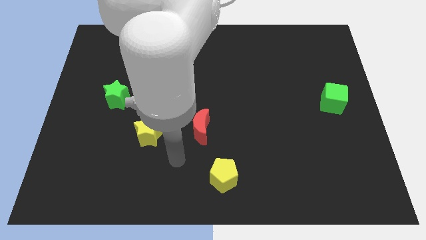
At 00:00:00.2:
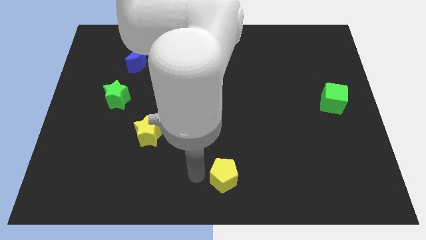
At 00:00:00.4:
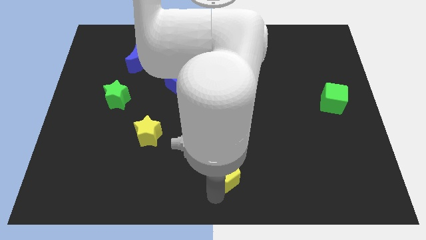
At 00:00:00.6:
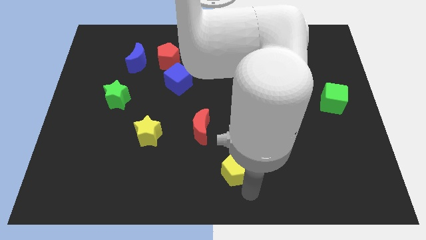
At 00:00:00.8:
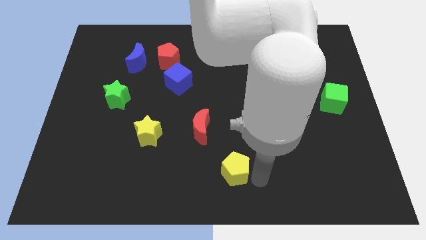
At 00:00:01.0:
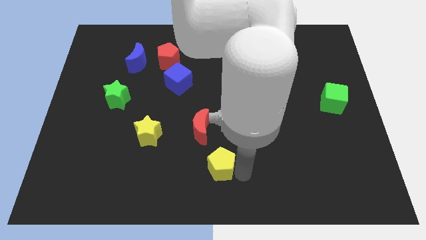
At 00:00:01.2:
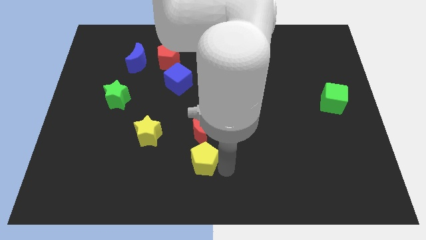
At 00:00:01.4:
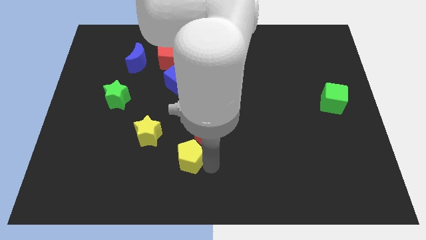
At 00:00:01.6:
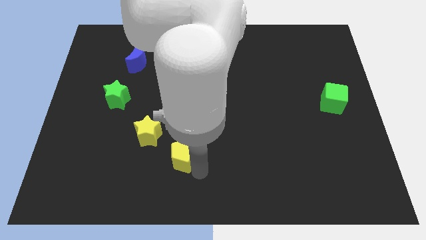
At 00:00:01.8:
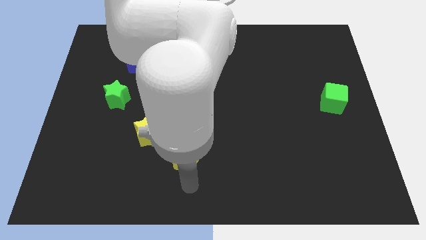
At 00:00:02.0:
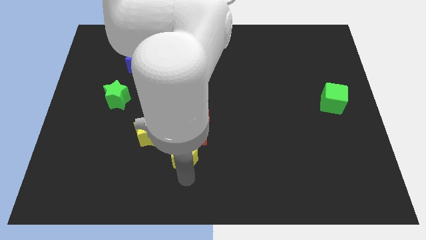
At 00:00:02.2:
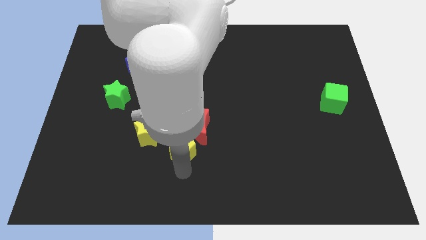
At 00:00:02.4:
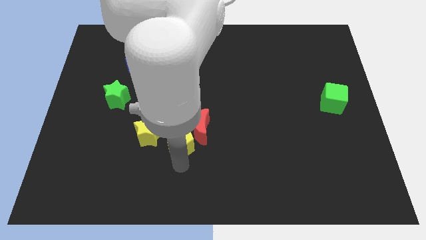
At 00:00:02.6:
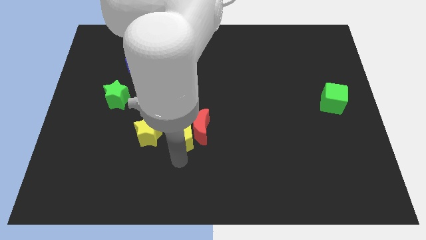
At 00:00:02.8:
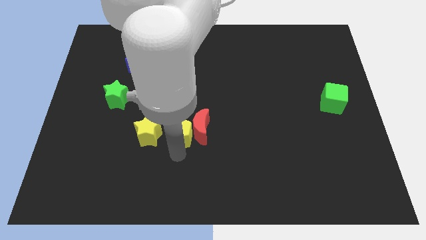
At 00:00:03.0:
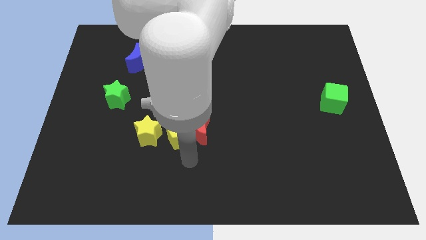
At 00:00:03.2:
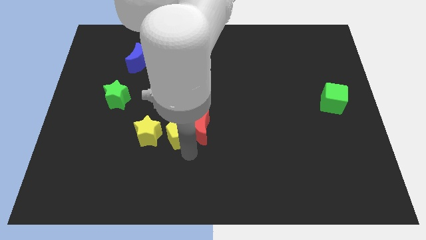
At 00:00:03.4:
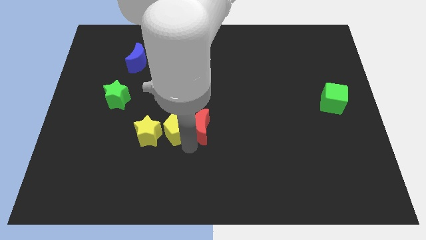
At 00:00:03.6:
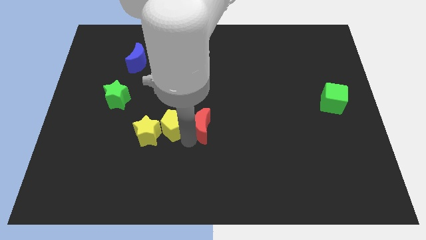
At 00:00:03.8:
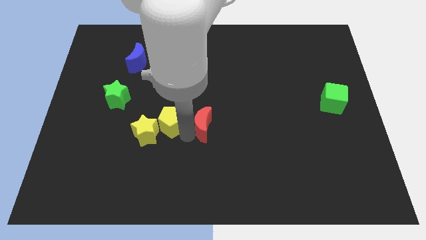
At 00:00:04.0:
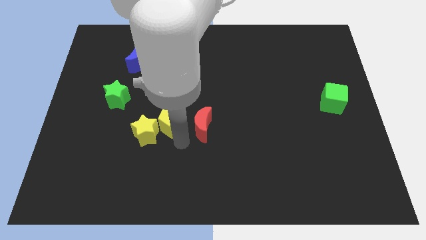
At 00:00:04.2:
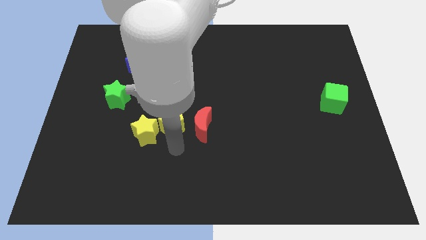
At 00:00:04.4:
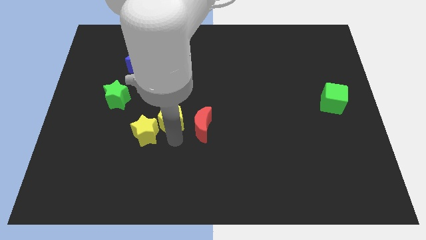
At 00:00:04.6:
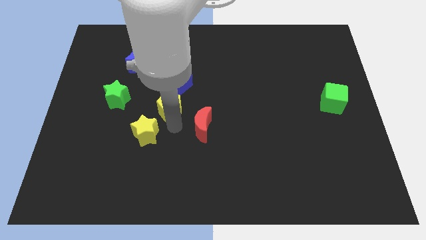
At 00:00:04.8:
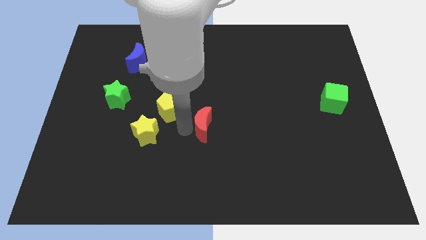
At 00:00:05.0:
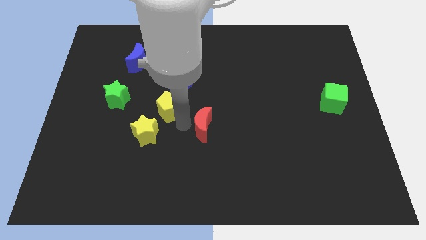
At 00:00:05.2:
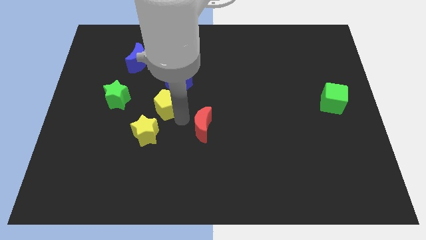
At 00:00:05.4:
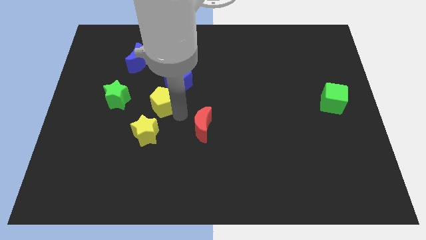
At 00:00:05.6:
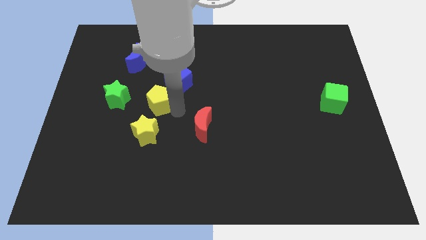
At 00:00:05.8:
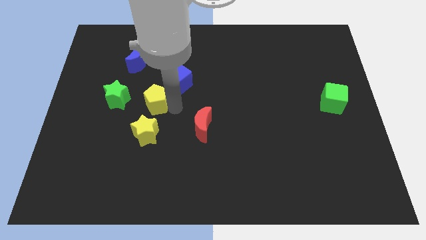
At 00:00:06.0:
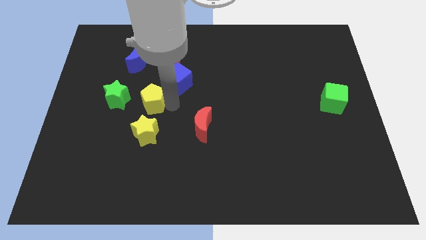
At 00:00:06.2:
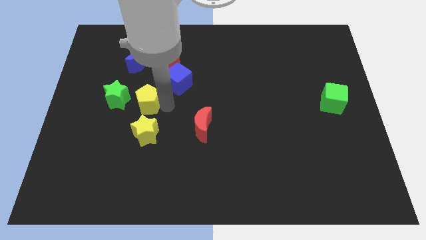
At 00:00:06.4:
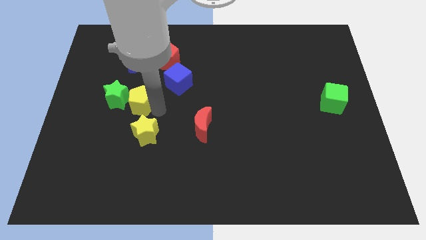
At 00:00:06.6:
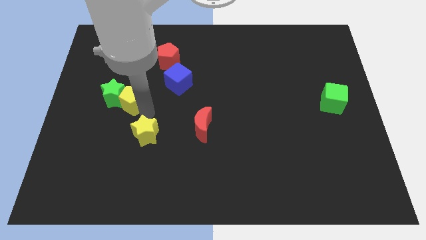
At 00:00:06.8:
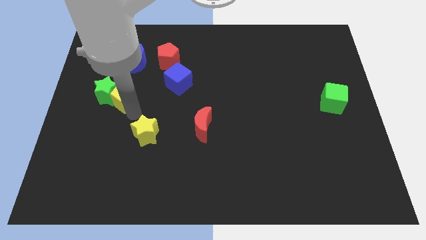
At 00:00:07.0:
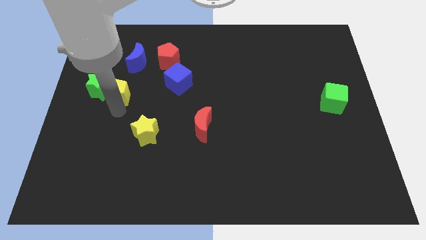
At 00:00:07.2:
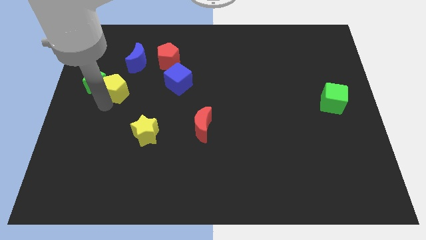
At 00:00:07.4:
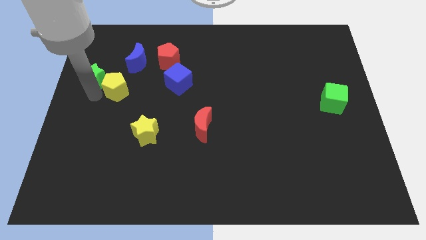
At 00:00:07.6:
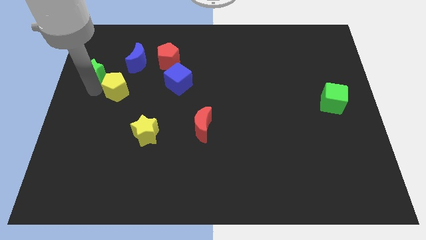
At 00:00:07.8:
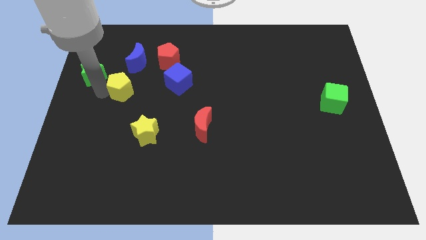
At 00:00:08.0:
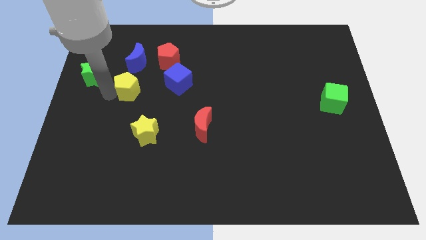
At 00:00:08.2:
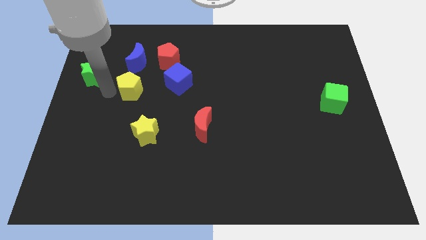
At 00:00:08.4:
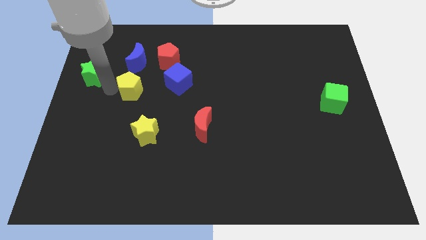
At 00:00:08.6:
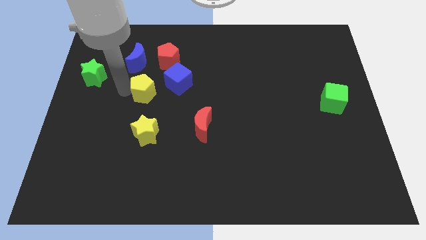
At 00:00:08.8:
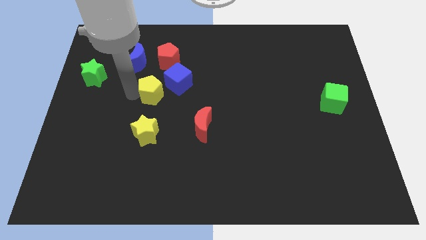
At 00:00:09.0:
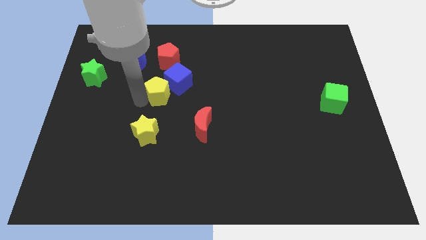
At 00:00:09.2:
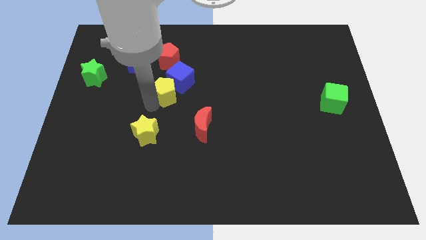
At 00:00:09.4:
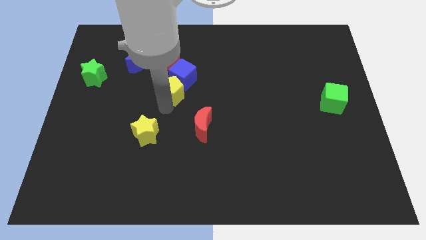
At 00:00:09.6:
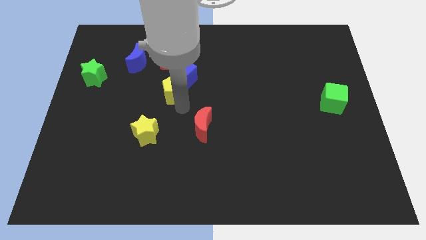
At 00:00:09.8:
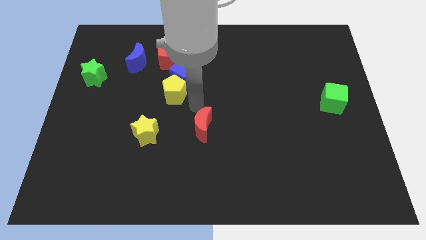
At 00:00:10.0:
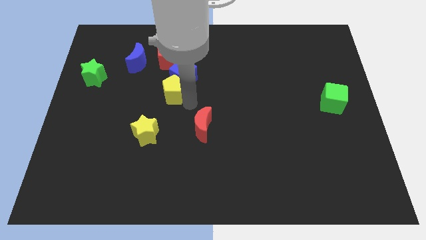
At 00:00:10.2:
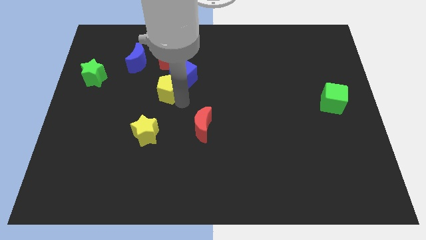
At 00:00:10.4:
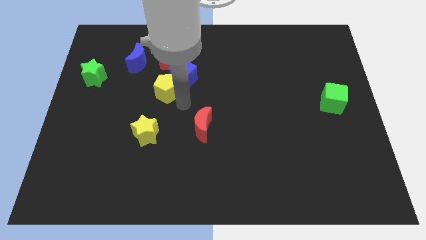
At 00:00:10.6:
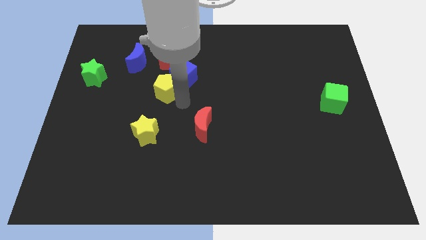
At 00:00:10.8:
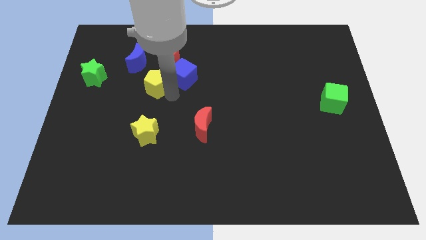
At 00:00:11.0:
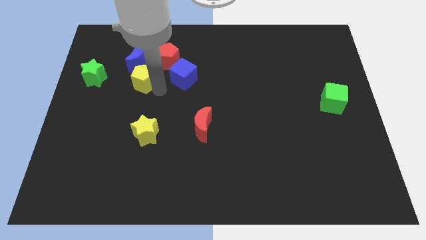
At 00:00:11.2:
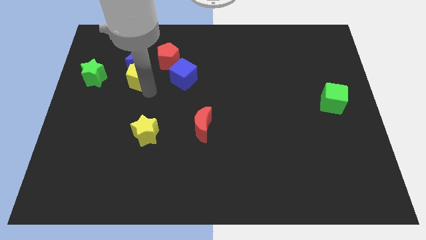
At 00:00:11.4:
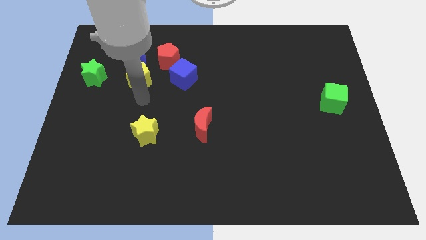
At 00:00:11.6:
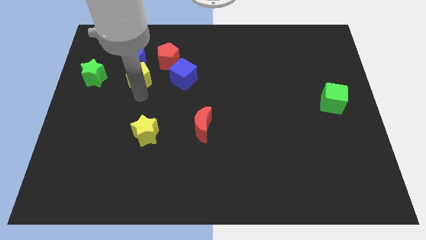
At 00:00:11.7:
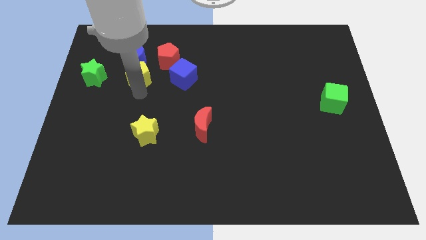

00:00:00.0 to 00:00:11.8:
move the yellow pentagon towards the blue moon

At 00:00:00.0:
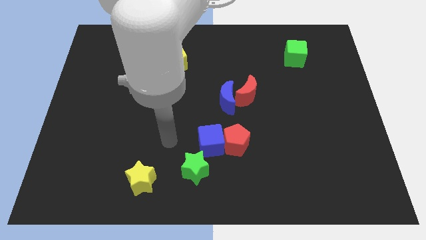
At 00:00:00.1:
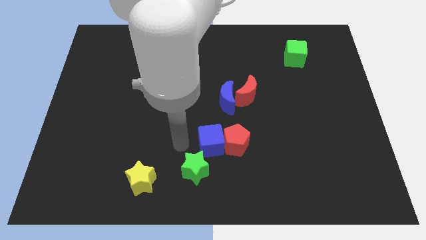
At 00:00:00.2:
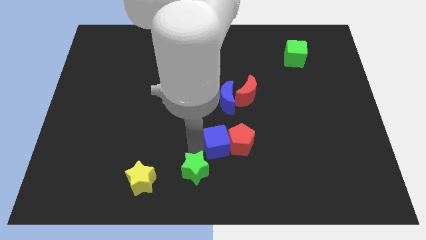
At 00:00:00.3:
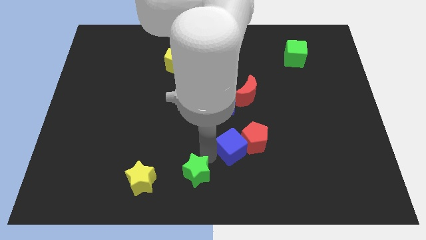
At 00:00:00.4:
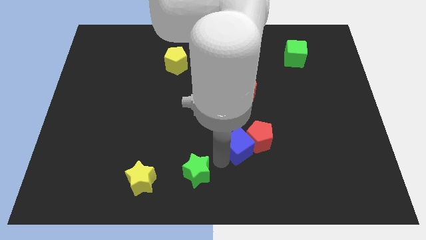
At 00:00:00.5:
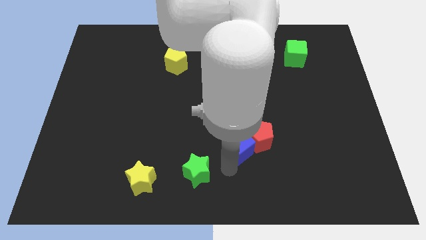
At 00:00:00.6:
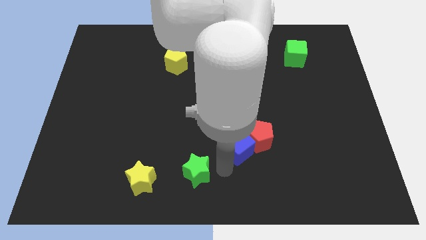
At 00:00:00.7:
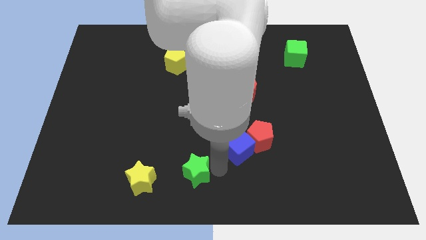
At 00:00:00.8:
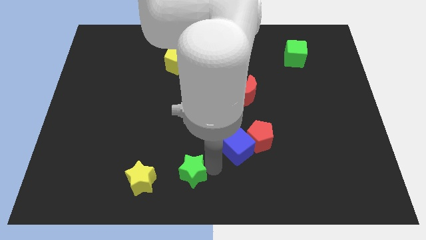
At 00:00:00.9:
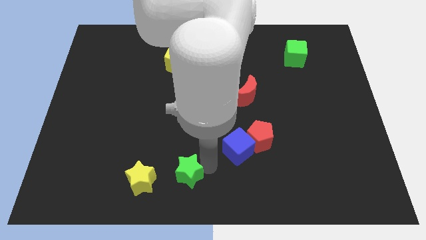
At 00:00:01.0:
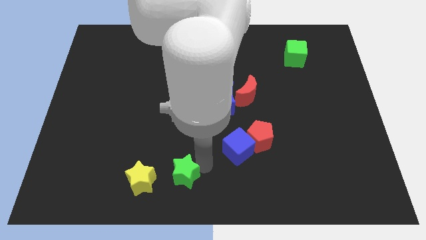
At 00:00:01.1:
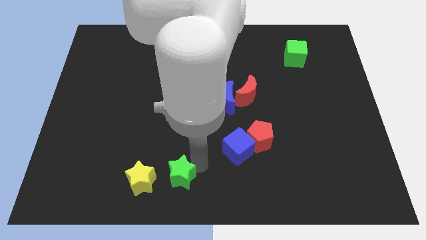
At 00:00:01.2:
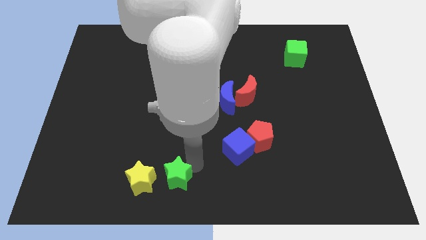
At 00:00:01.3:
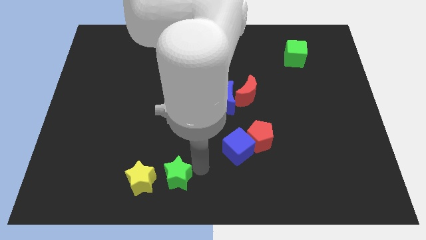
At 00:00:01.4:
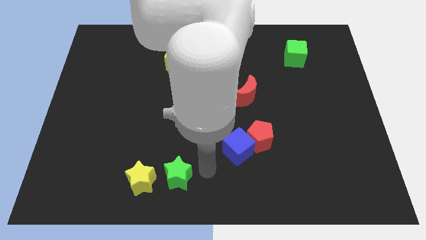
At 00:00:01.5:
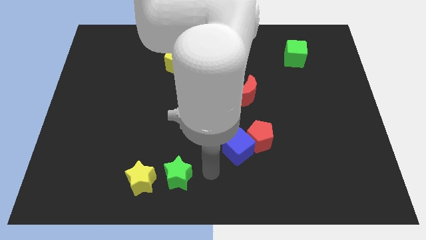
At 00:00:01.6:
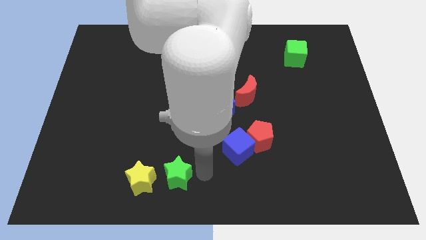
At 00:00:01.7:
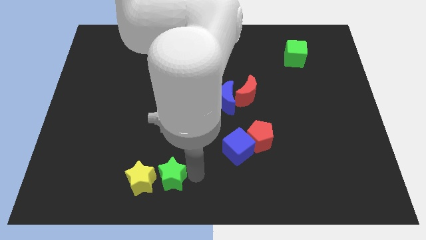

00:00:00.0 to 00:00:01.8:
push the green star to the yellow star
